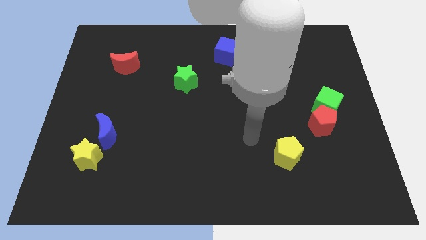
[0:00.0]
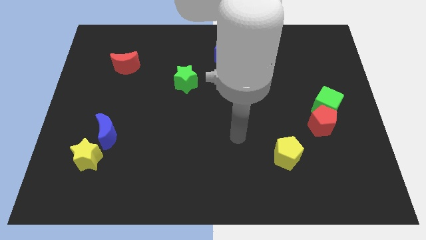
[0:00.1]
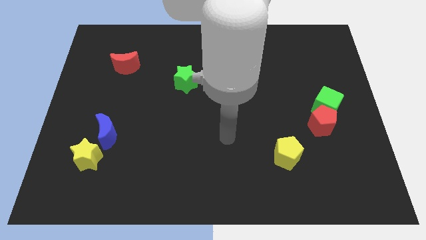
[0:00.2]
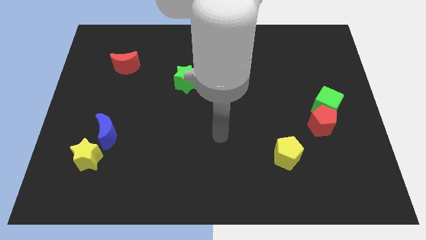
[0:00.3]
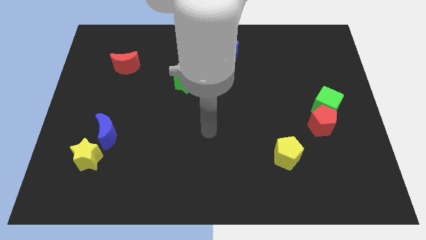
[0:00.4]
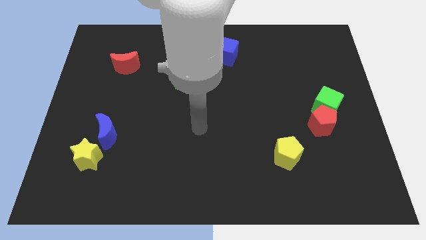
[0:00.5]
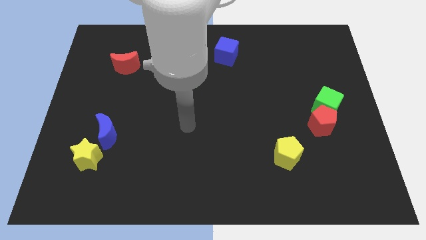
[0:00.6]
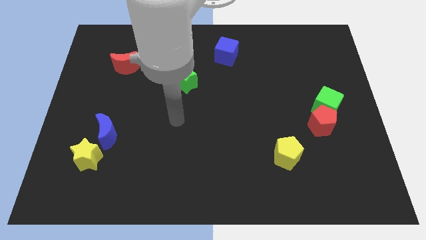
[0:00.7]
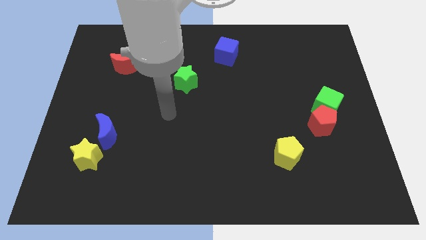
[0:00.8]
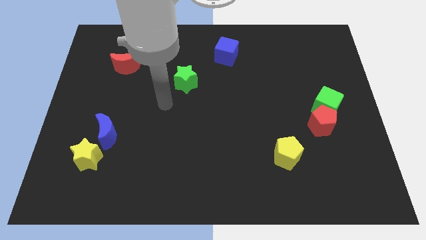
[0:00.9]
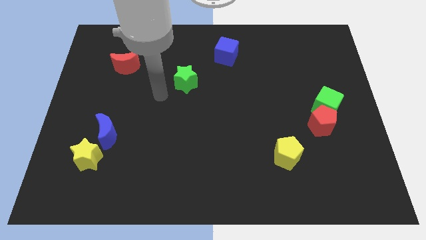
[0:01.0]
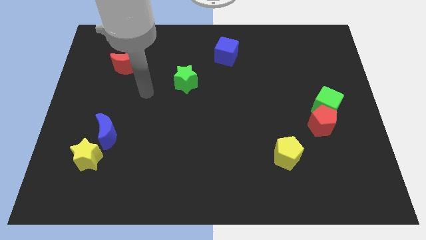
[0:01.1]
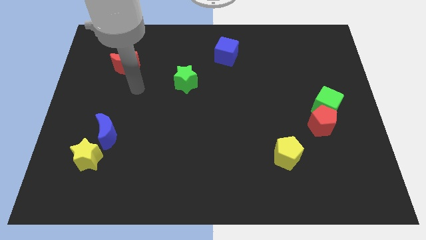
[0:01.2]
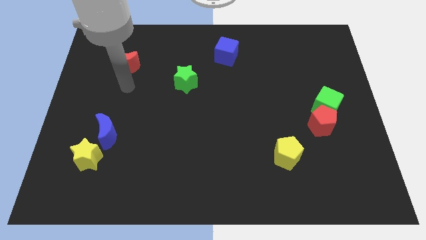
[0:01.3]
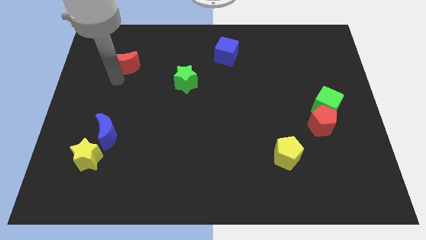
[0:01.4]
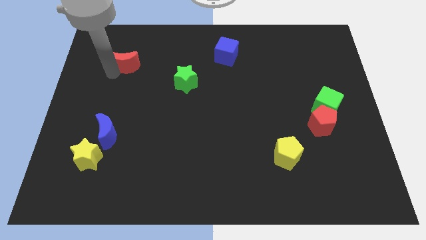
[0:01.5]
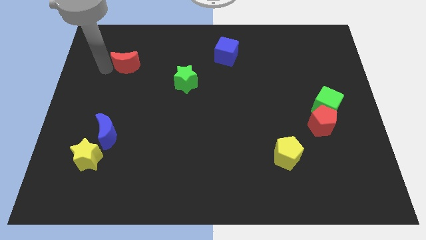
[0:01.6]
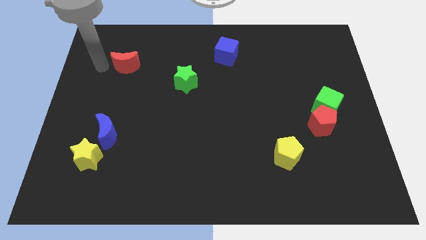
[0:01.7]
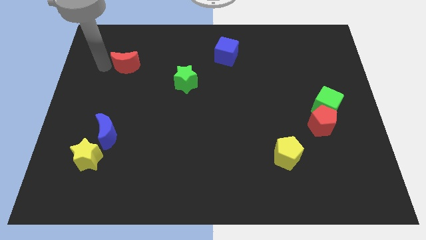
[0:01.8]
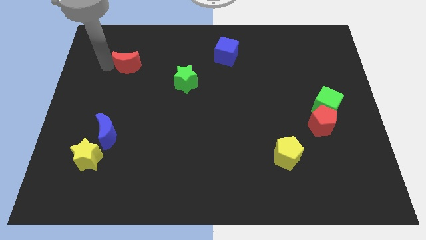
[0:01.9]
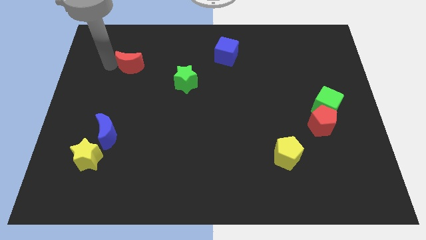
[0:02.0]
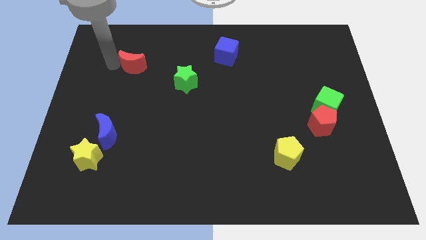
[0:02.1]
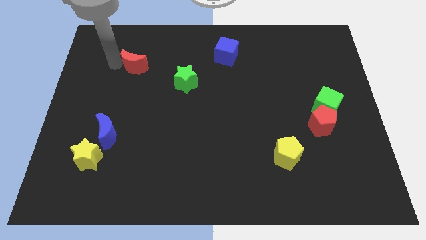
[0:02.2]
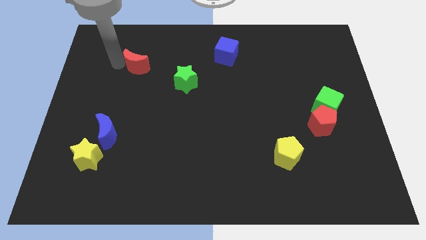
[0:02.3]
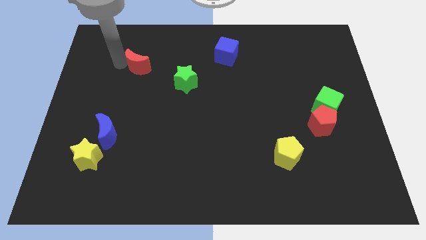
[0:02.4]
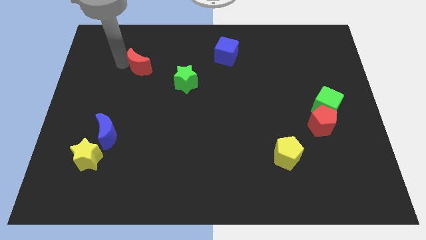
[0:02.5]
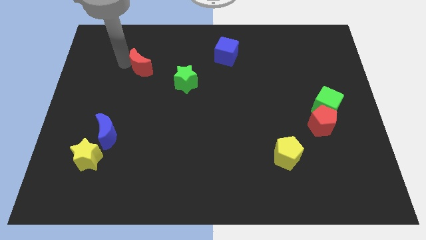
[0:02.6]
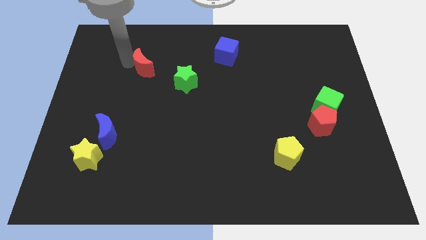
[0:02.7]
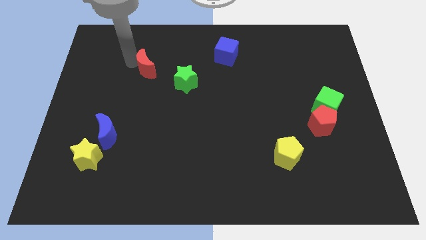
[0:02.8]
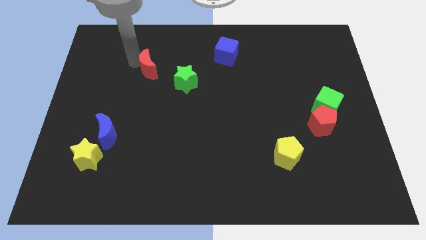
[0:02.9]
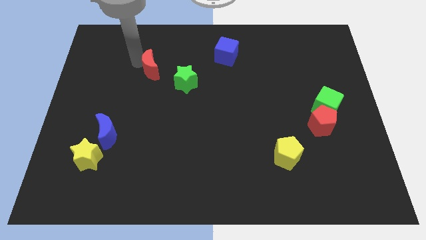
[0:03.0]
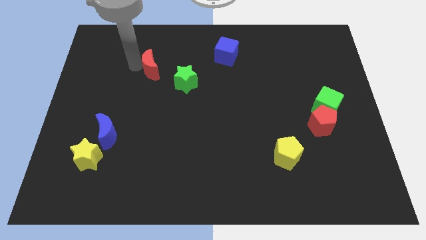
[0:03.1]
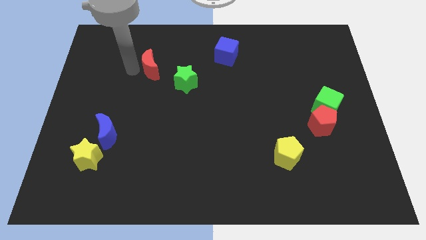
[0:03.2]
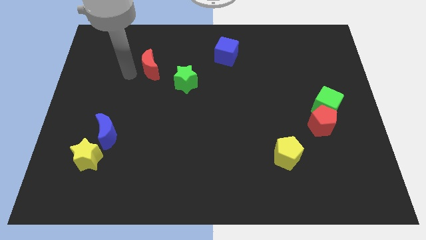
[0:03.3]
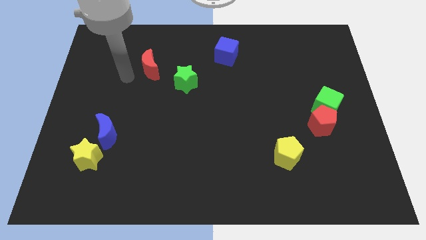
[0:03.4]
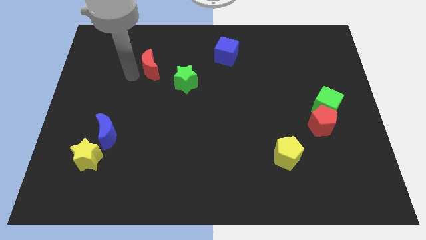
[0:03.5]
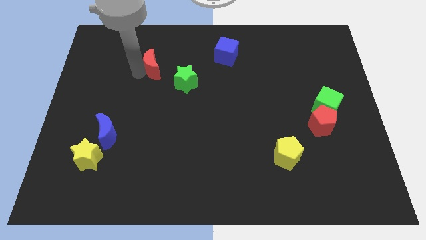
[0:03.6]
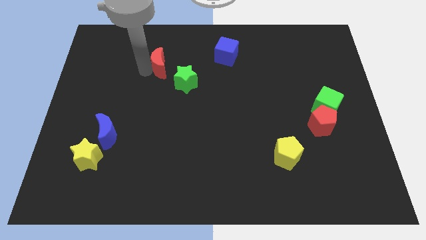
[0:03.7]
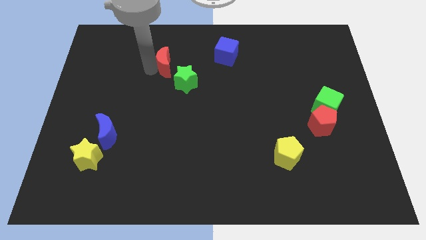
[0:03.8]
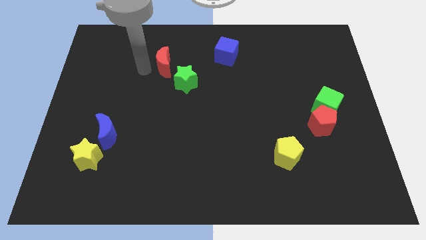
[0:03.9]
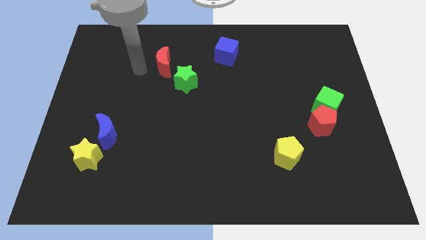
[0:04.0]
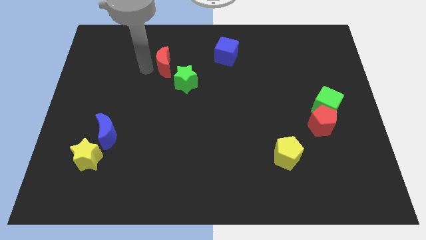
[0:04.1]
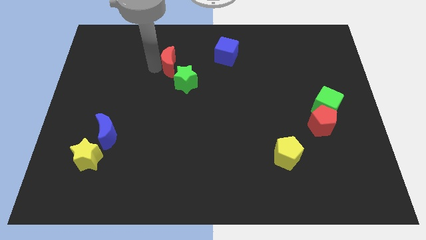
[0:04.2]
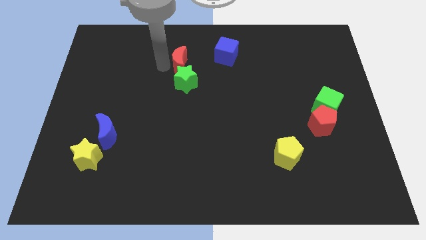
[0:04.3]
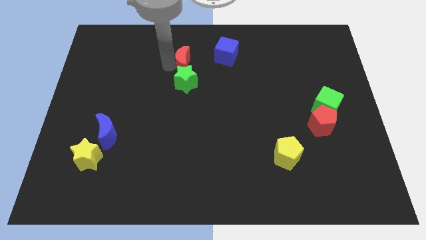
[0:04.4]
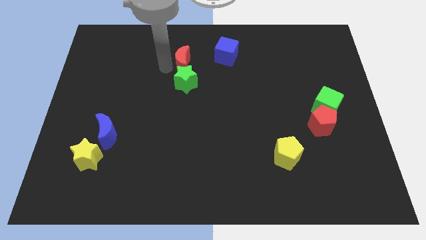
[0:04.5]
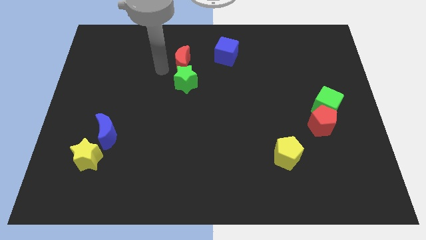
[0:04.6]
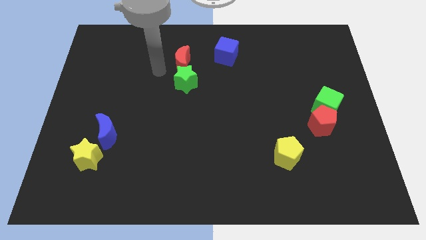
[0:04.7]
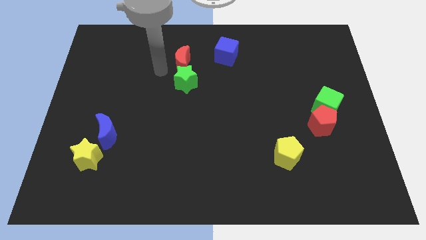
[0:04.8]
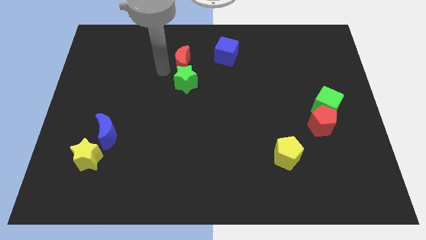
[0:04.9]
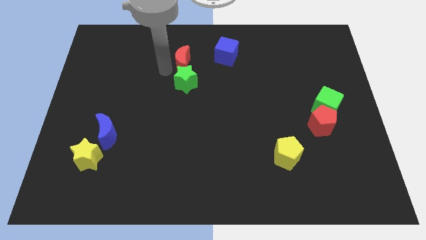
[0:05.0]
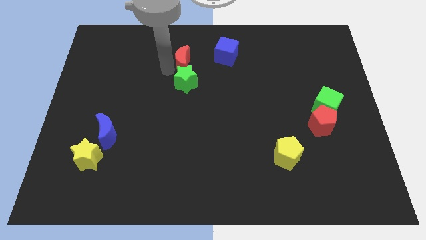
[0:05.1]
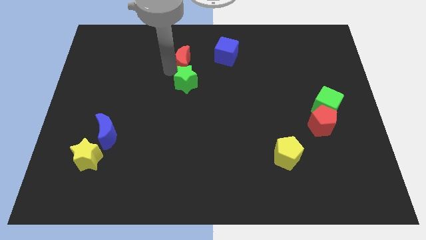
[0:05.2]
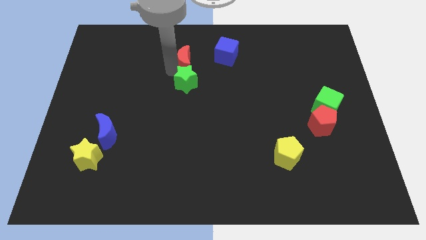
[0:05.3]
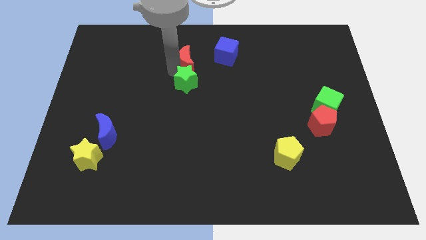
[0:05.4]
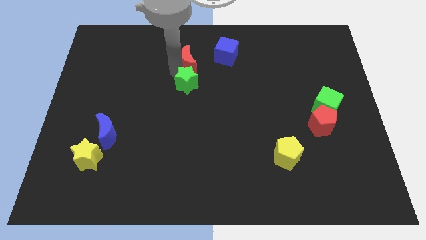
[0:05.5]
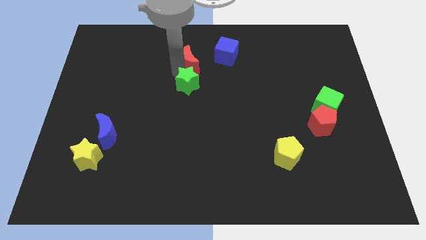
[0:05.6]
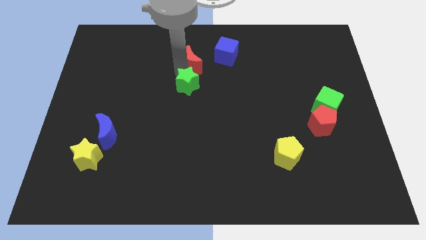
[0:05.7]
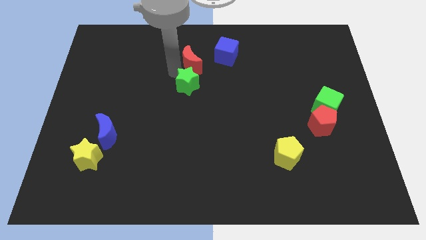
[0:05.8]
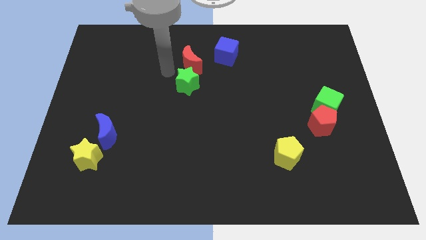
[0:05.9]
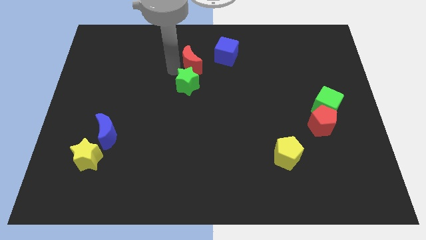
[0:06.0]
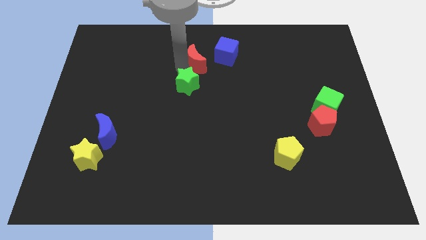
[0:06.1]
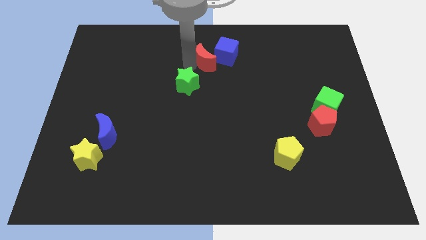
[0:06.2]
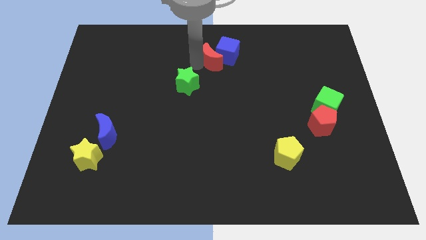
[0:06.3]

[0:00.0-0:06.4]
push the red moon close to the blue cube

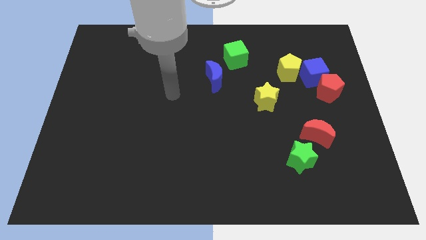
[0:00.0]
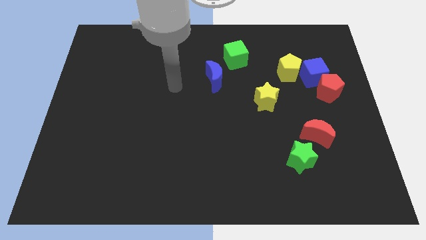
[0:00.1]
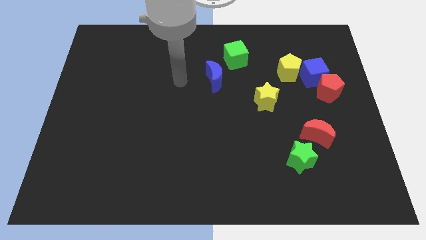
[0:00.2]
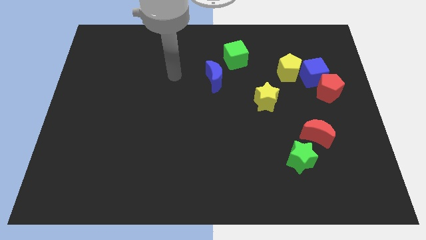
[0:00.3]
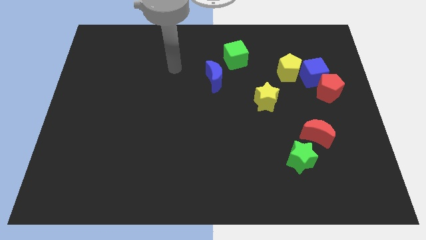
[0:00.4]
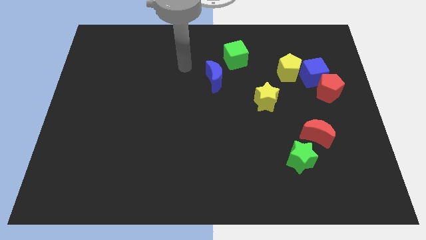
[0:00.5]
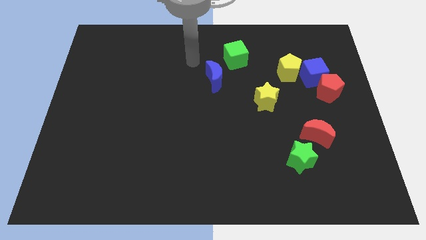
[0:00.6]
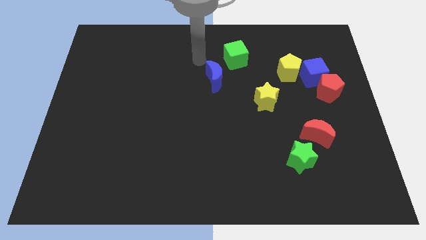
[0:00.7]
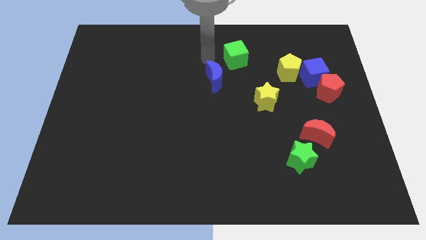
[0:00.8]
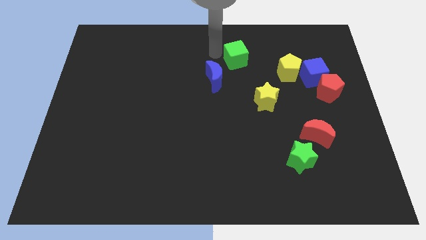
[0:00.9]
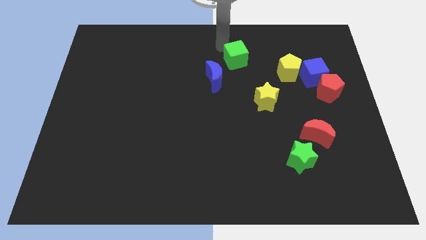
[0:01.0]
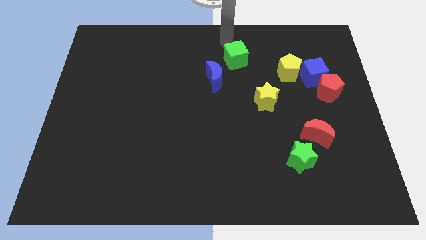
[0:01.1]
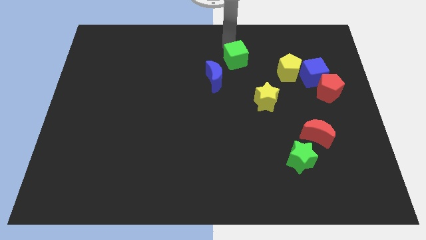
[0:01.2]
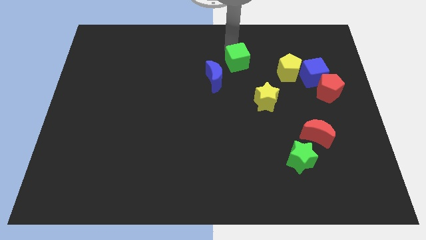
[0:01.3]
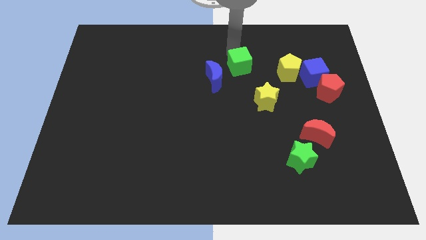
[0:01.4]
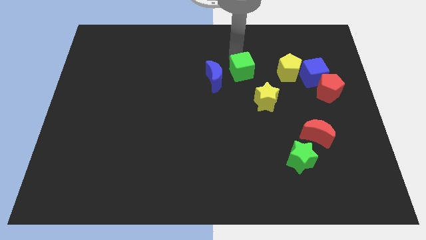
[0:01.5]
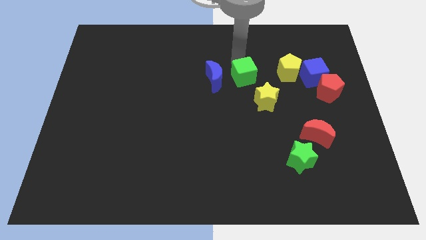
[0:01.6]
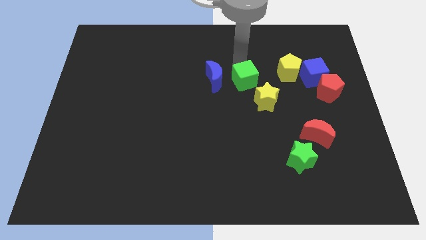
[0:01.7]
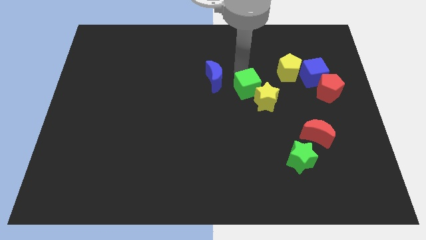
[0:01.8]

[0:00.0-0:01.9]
slide the green cube to the yellow star
